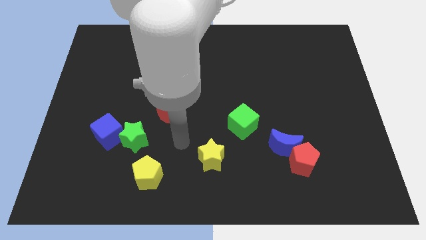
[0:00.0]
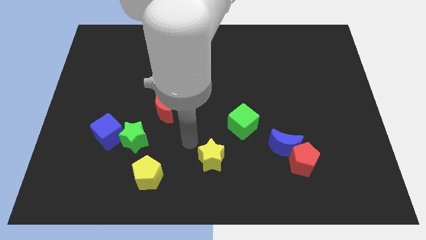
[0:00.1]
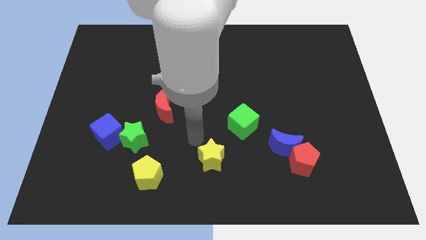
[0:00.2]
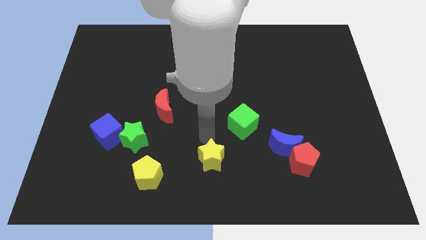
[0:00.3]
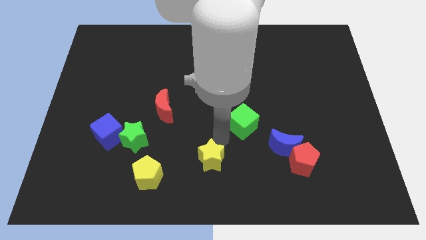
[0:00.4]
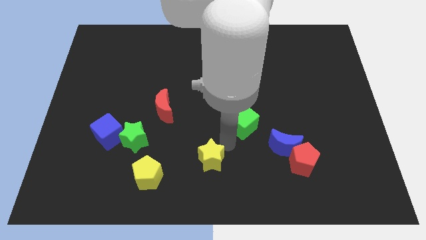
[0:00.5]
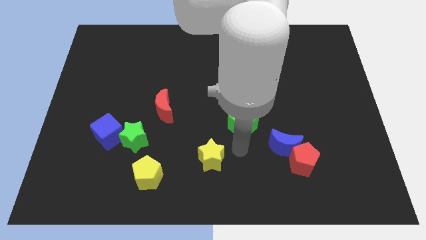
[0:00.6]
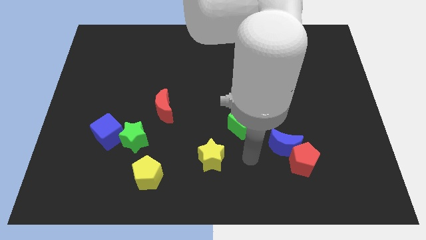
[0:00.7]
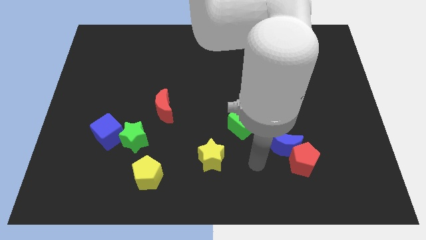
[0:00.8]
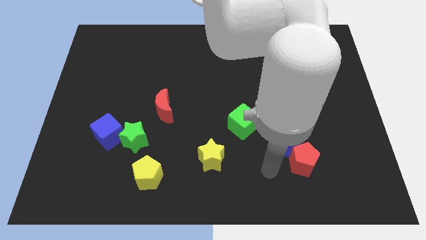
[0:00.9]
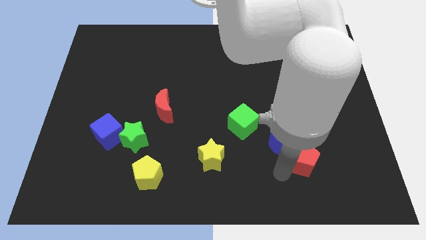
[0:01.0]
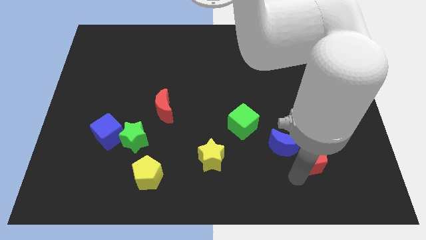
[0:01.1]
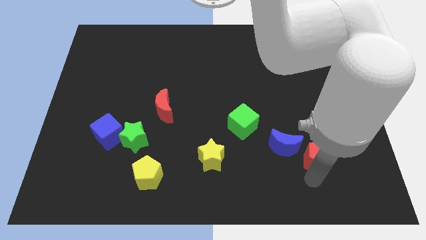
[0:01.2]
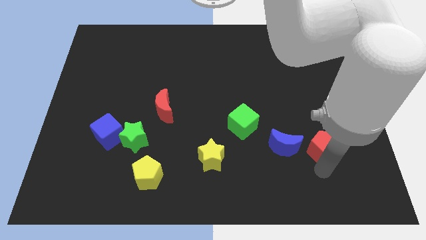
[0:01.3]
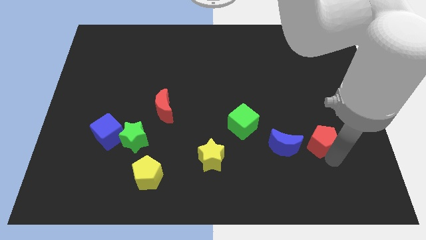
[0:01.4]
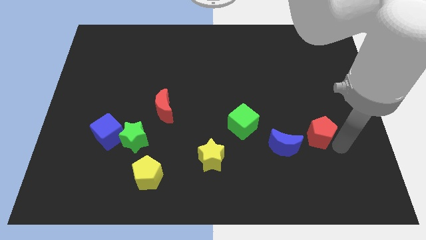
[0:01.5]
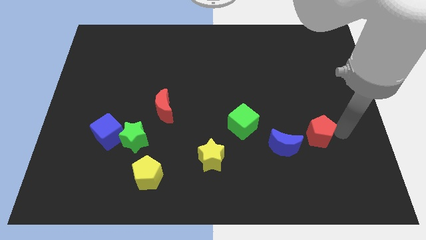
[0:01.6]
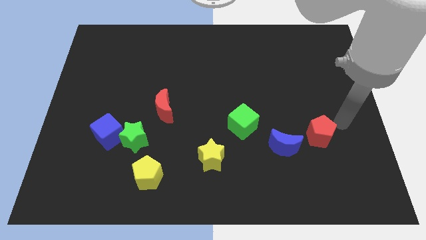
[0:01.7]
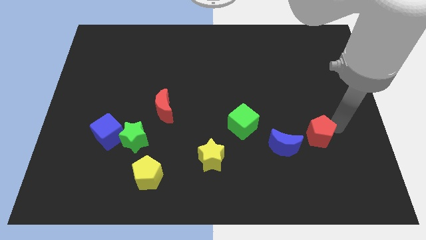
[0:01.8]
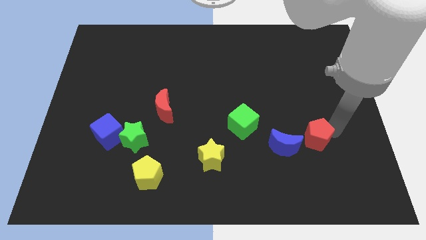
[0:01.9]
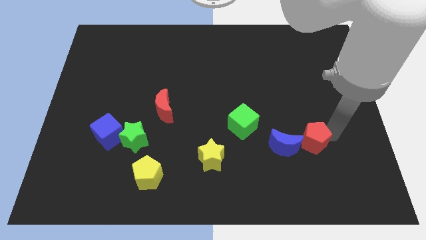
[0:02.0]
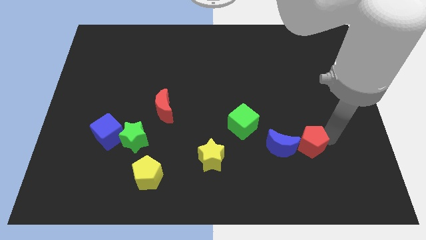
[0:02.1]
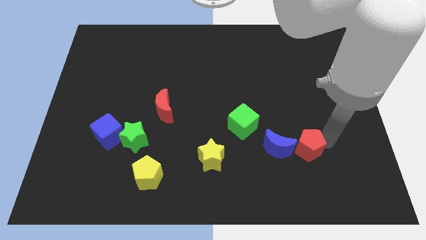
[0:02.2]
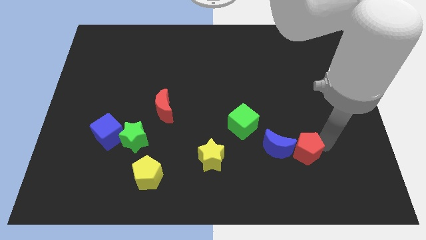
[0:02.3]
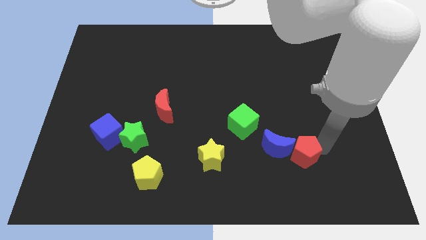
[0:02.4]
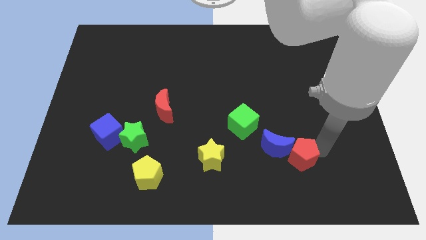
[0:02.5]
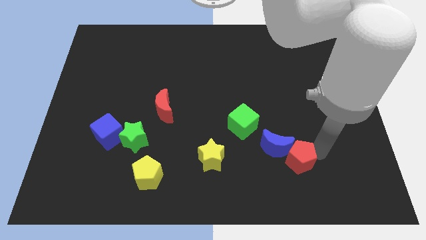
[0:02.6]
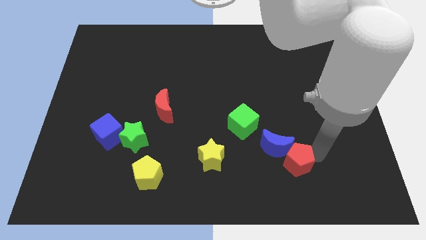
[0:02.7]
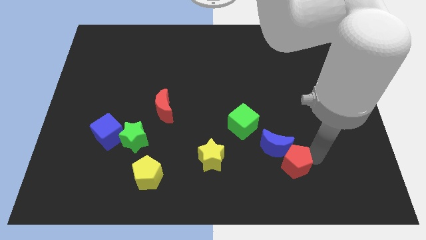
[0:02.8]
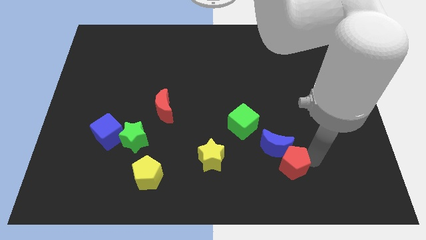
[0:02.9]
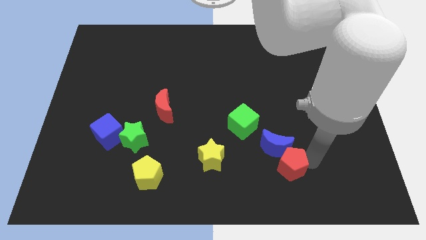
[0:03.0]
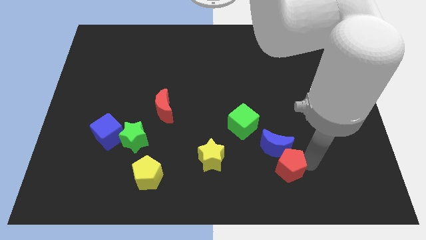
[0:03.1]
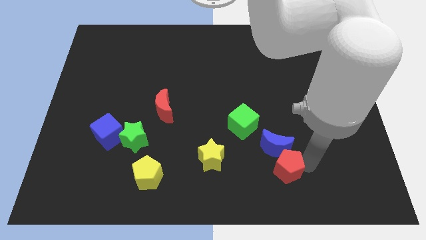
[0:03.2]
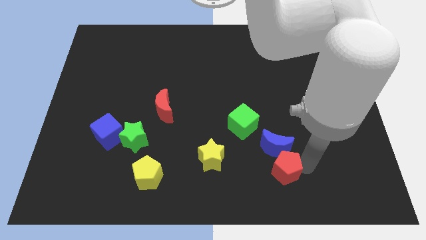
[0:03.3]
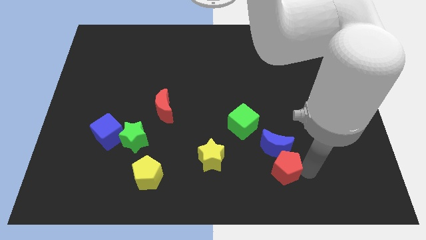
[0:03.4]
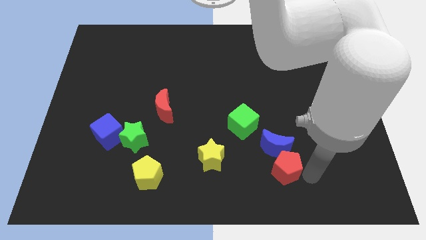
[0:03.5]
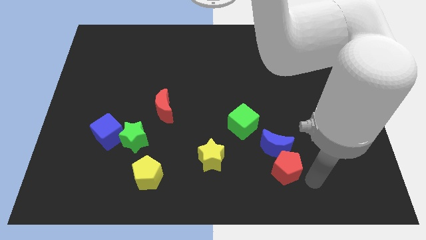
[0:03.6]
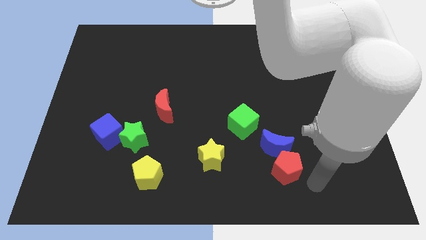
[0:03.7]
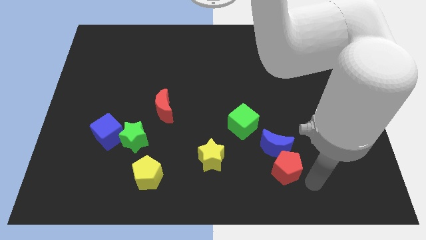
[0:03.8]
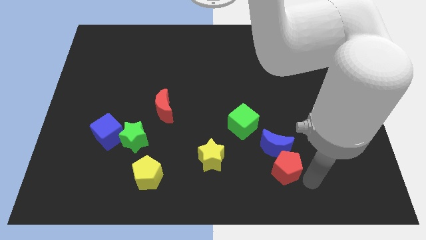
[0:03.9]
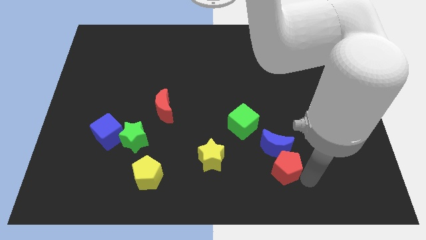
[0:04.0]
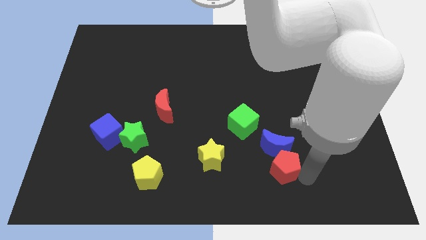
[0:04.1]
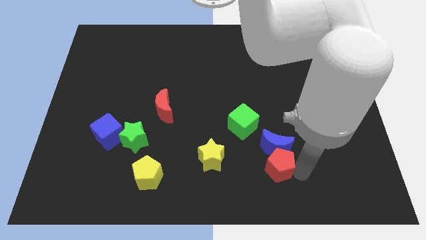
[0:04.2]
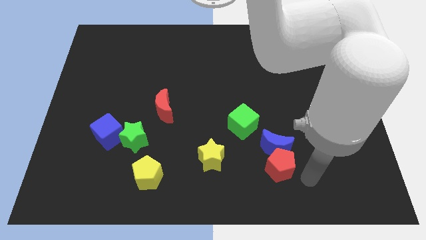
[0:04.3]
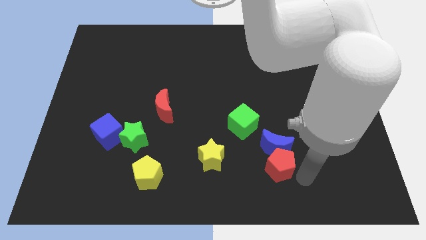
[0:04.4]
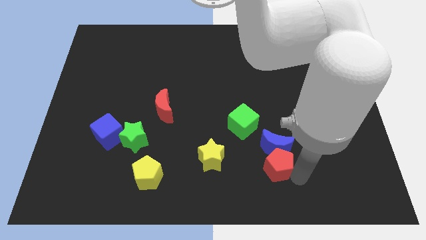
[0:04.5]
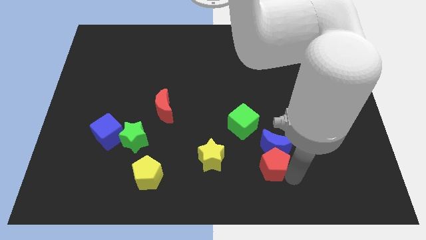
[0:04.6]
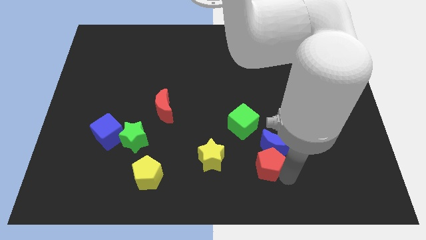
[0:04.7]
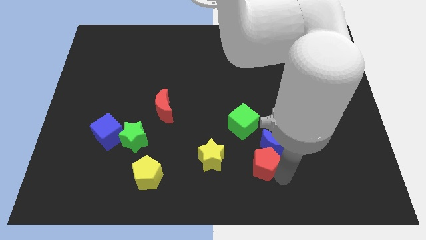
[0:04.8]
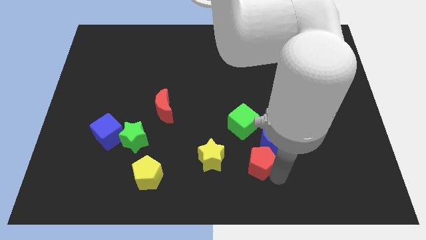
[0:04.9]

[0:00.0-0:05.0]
push the red pentagon to the left of the blue moon

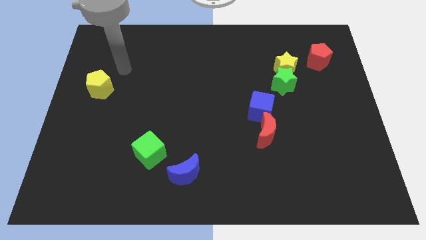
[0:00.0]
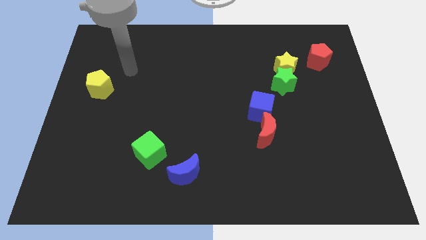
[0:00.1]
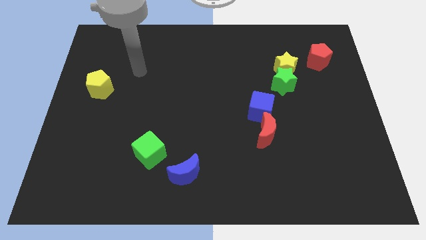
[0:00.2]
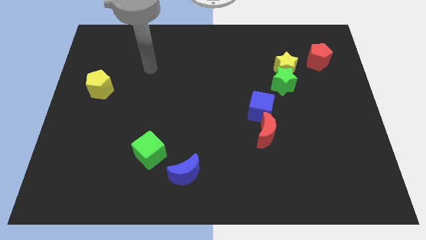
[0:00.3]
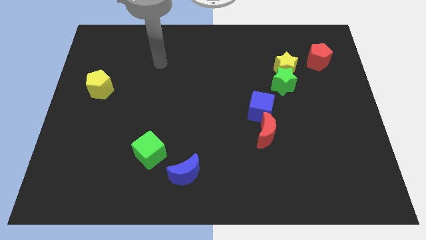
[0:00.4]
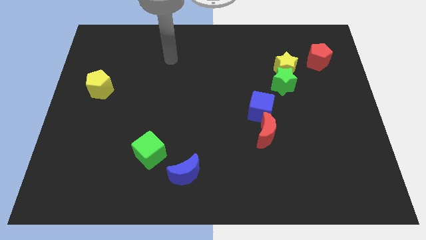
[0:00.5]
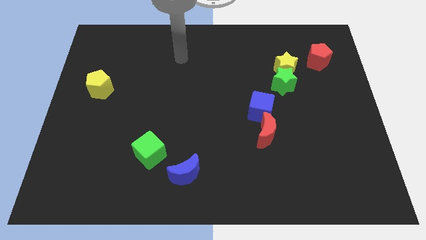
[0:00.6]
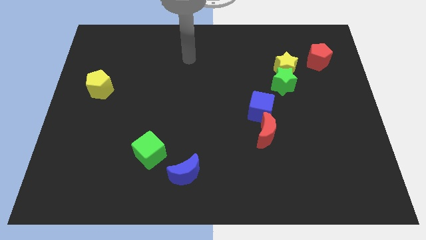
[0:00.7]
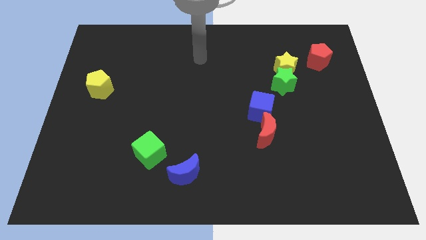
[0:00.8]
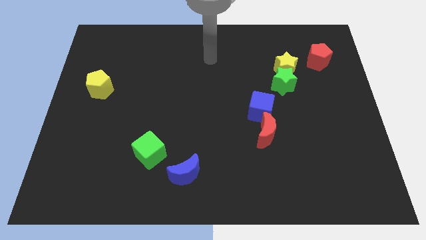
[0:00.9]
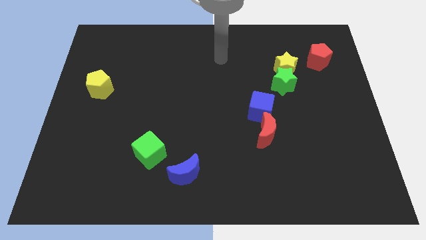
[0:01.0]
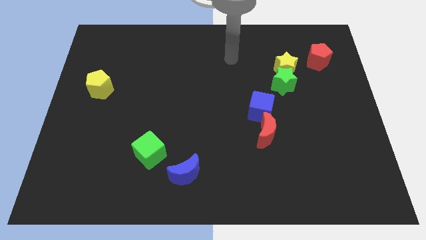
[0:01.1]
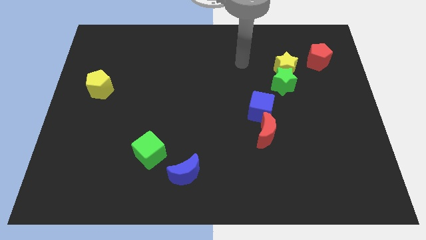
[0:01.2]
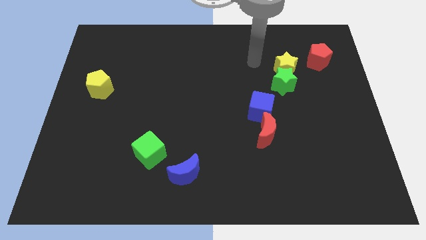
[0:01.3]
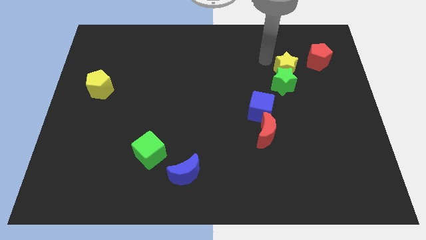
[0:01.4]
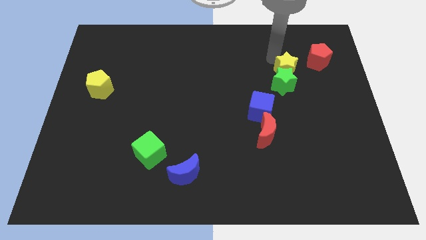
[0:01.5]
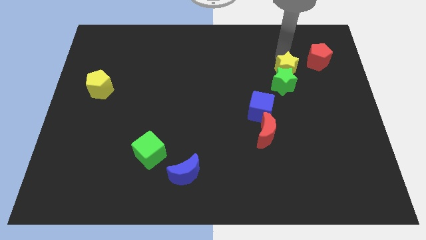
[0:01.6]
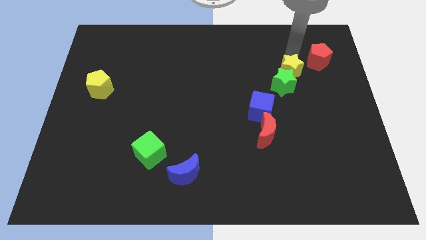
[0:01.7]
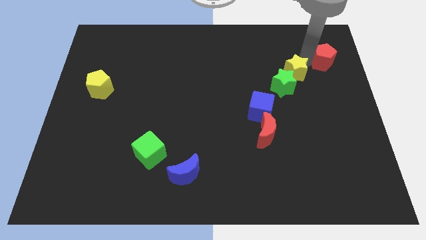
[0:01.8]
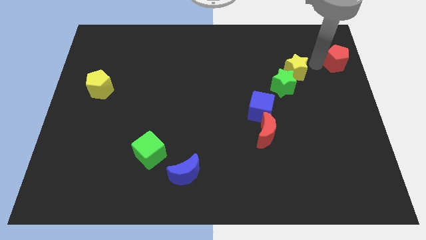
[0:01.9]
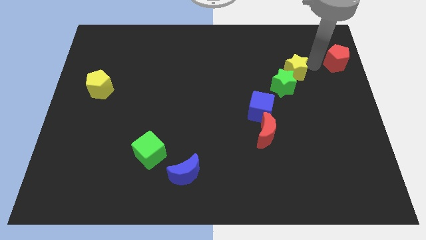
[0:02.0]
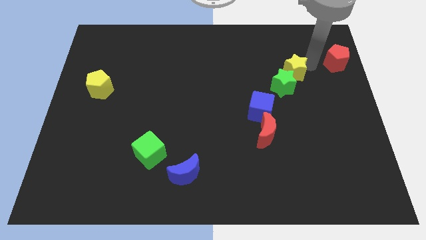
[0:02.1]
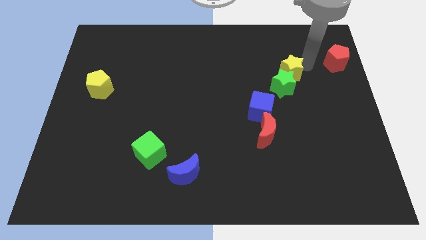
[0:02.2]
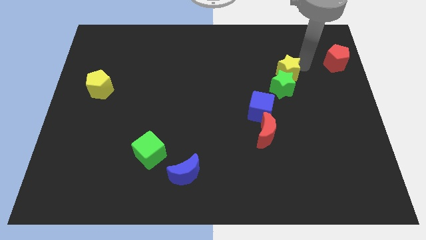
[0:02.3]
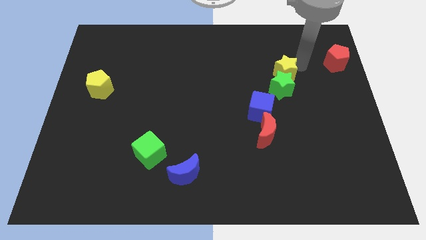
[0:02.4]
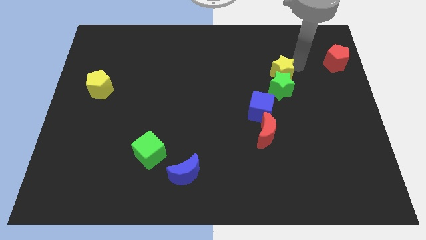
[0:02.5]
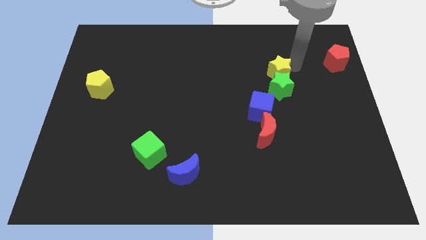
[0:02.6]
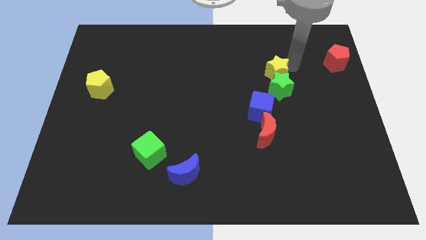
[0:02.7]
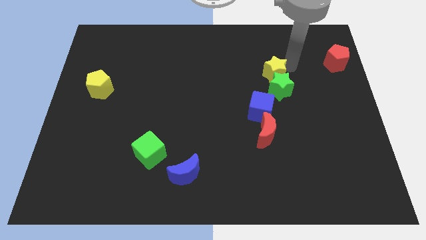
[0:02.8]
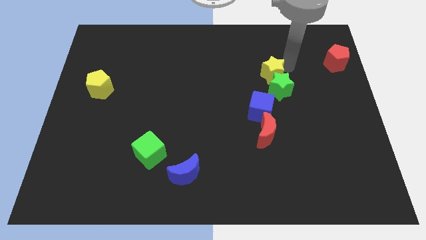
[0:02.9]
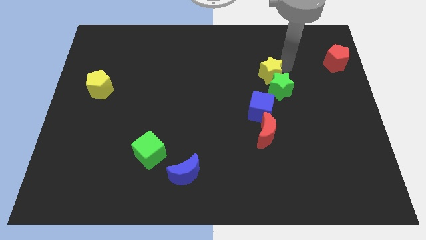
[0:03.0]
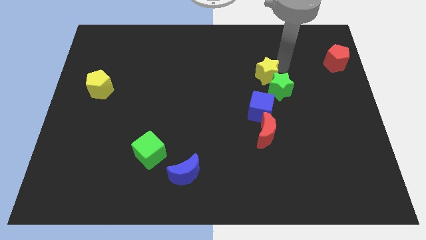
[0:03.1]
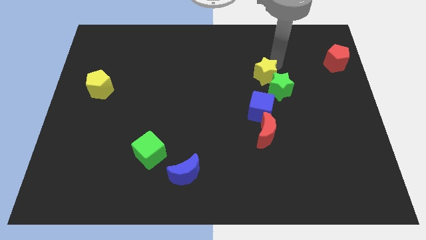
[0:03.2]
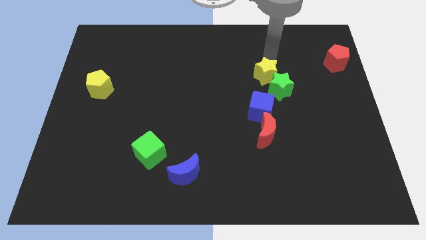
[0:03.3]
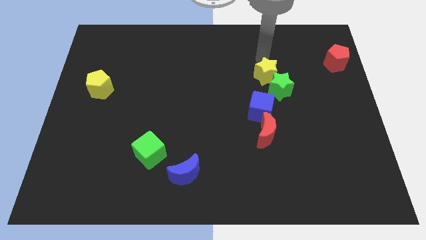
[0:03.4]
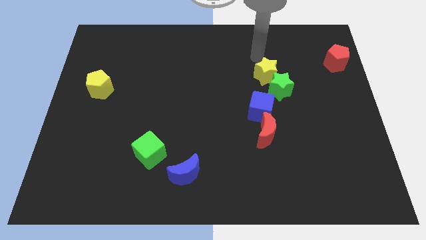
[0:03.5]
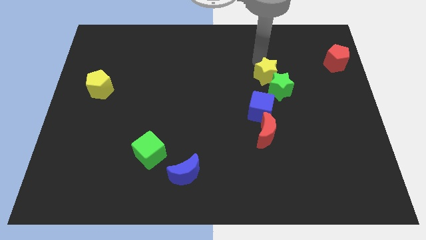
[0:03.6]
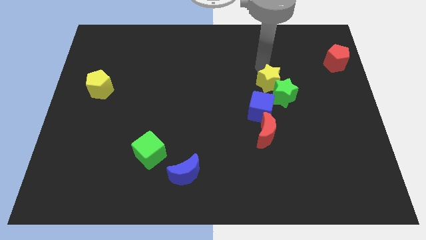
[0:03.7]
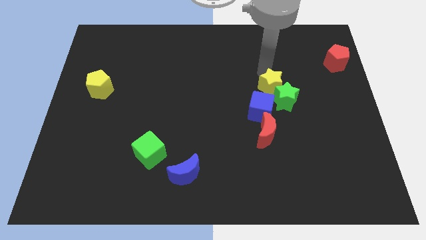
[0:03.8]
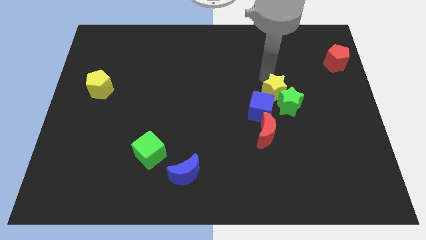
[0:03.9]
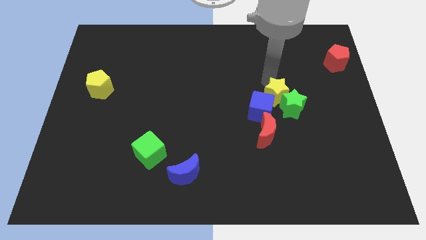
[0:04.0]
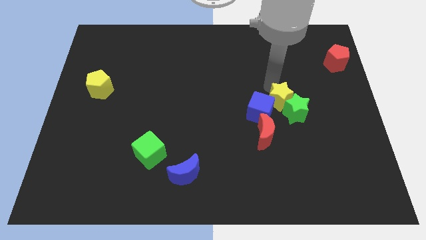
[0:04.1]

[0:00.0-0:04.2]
slide the yellow star to the top right of the red moon
